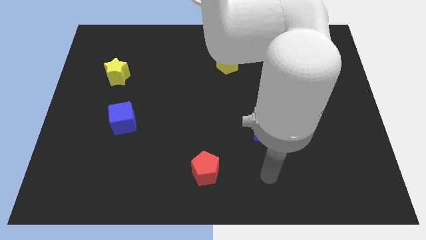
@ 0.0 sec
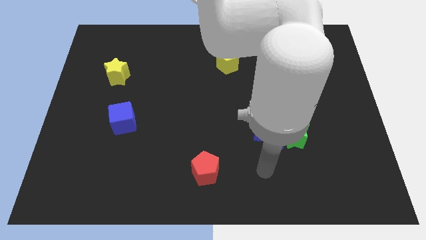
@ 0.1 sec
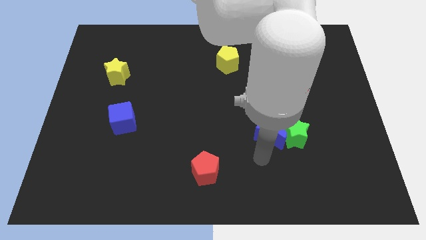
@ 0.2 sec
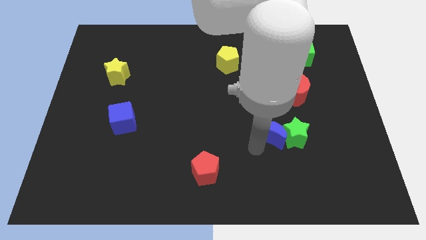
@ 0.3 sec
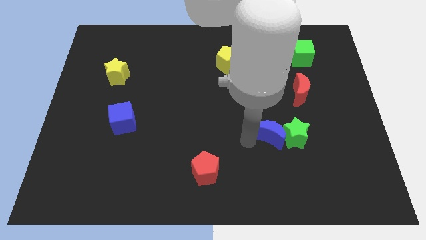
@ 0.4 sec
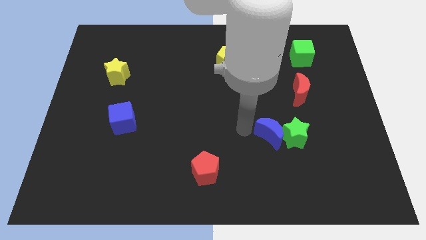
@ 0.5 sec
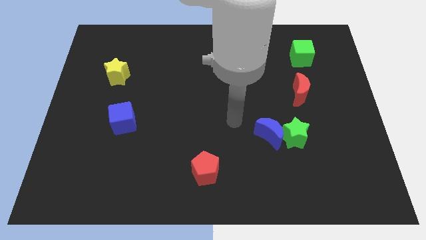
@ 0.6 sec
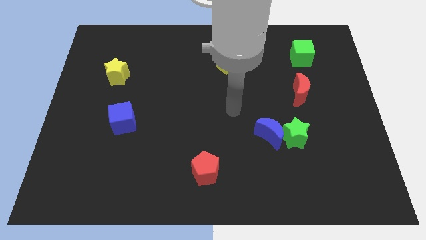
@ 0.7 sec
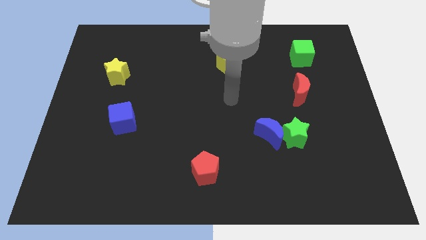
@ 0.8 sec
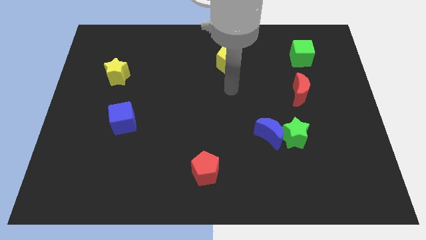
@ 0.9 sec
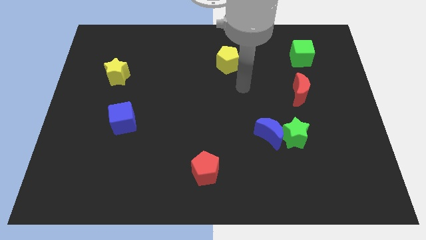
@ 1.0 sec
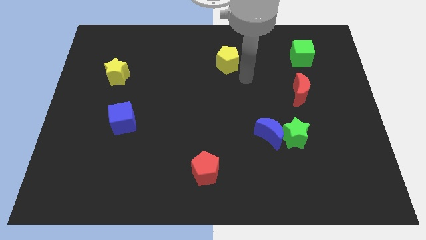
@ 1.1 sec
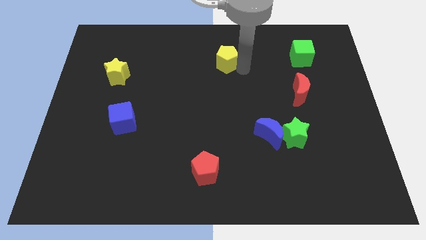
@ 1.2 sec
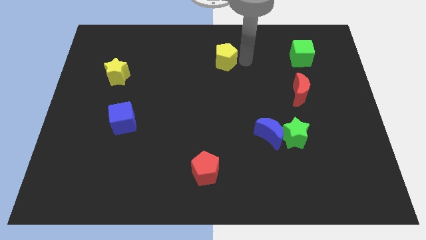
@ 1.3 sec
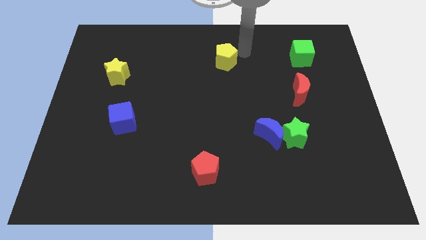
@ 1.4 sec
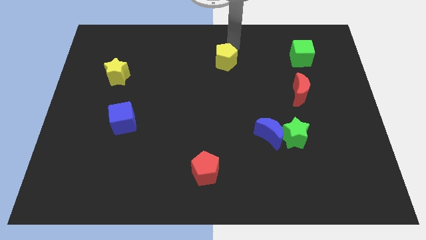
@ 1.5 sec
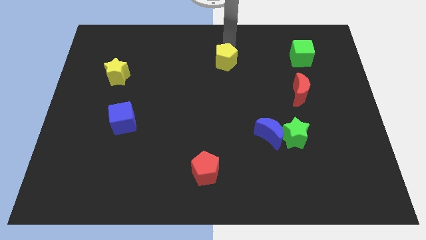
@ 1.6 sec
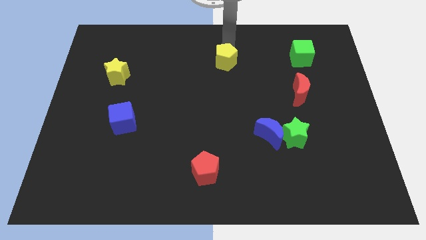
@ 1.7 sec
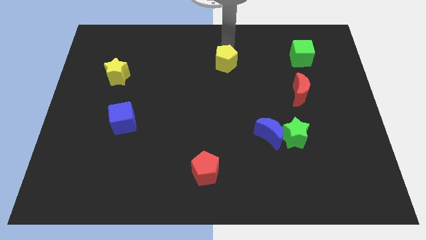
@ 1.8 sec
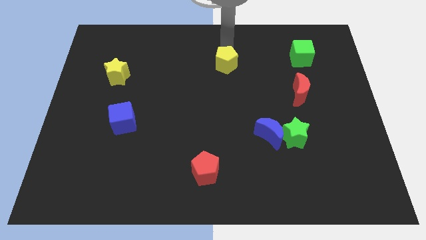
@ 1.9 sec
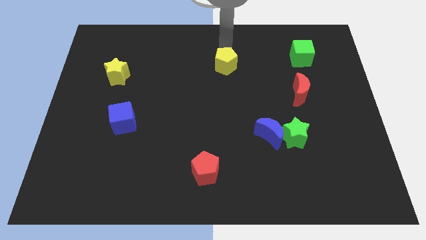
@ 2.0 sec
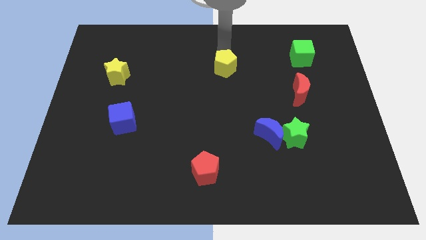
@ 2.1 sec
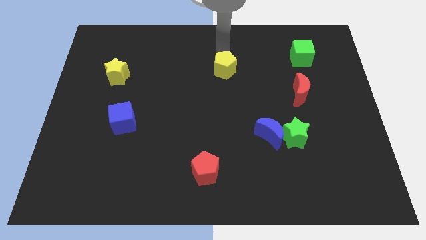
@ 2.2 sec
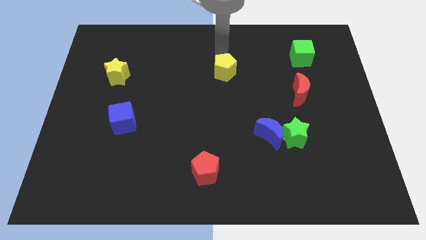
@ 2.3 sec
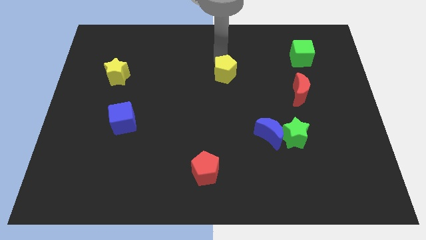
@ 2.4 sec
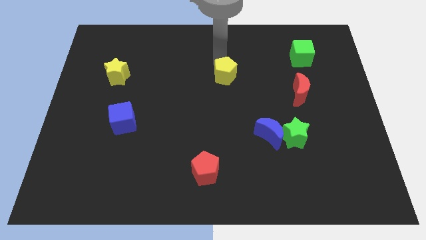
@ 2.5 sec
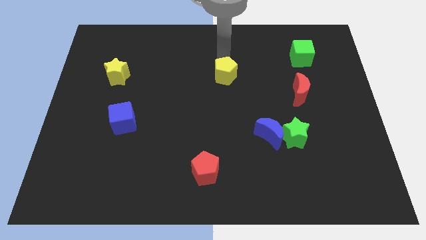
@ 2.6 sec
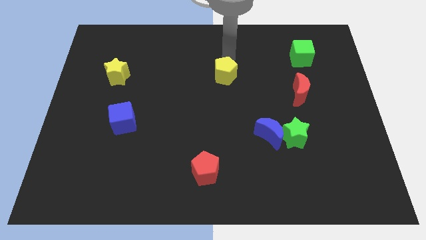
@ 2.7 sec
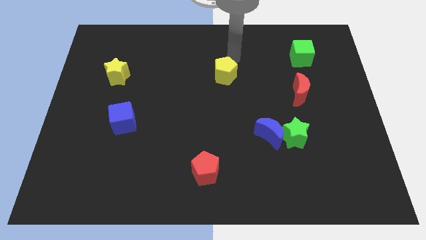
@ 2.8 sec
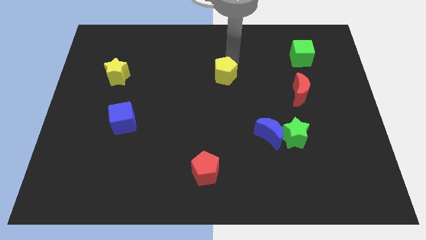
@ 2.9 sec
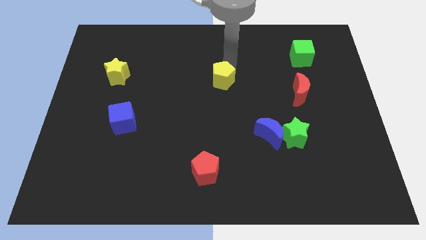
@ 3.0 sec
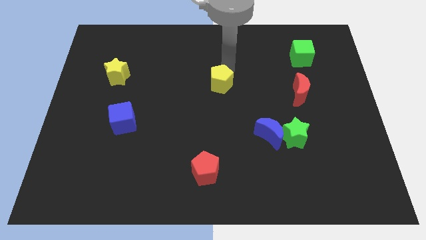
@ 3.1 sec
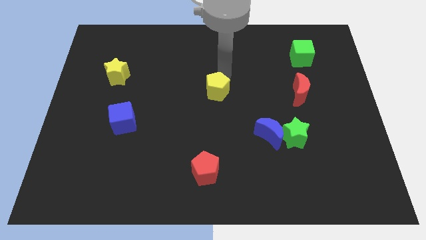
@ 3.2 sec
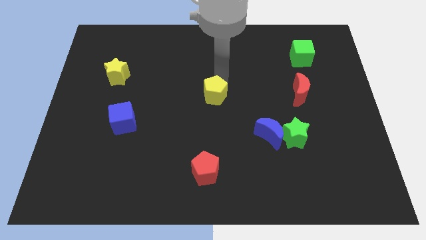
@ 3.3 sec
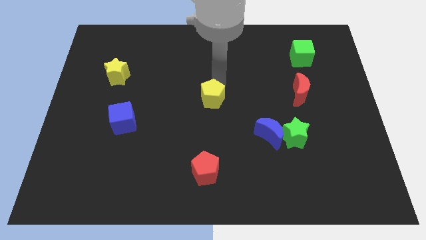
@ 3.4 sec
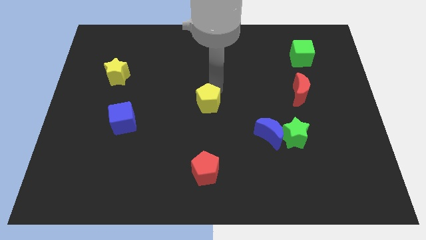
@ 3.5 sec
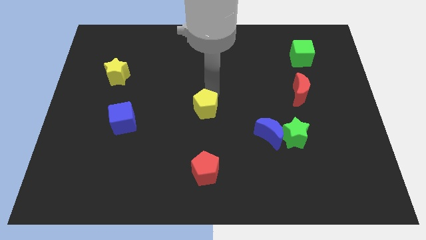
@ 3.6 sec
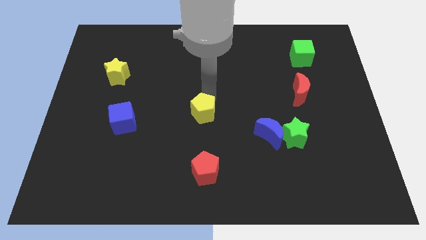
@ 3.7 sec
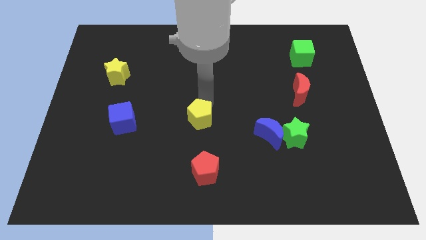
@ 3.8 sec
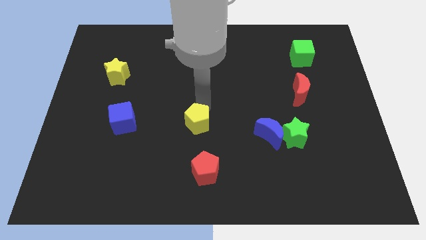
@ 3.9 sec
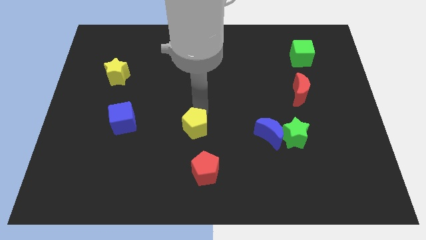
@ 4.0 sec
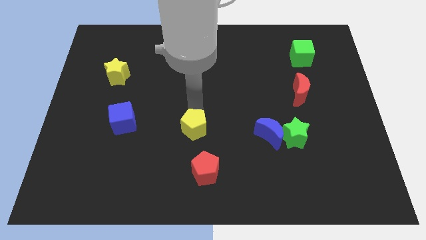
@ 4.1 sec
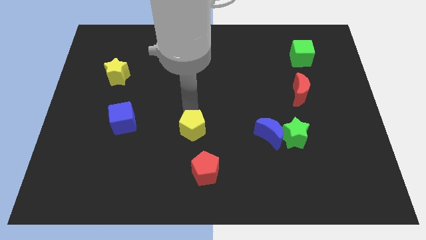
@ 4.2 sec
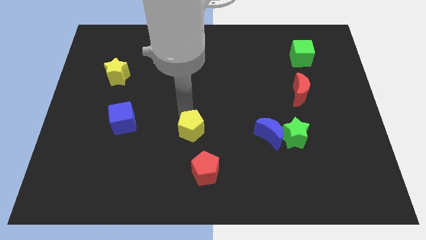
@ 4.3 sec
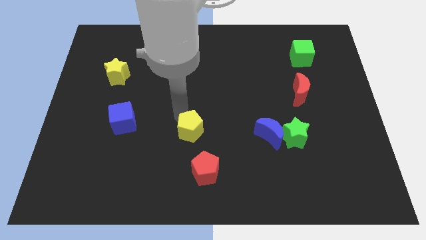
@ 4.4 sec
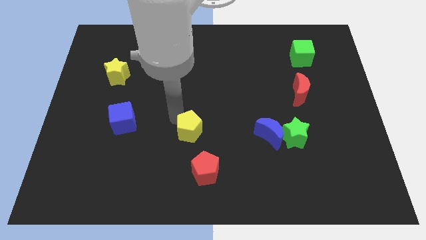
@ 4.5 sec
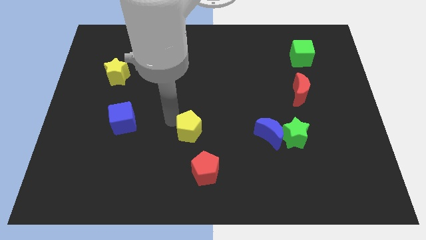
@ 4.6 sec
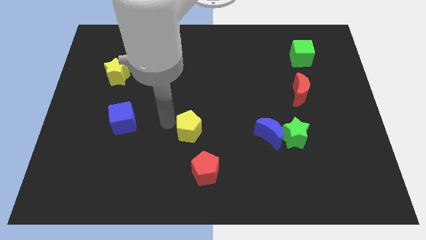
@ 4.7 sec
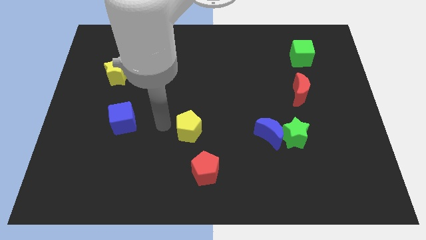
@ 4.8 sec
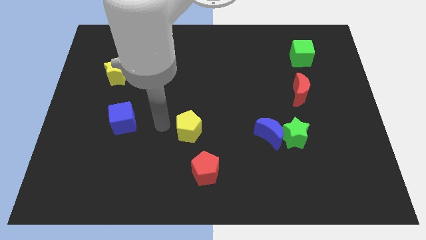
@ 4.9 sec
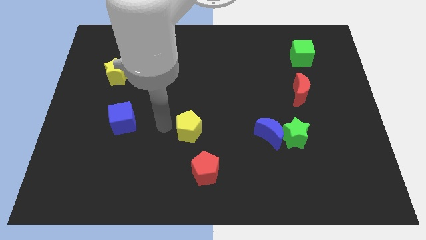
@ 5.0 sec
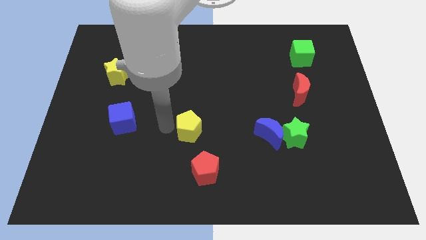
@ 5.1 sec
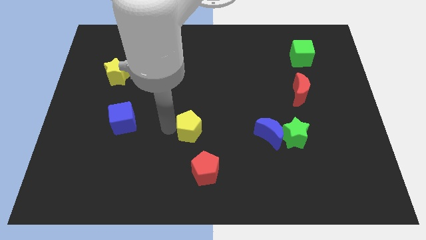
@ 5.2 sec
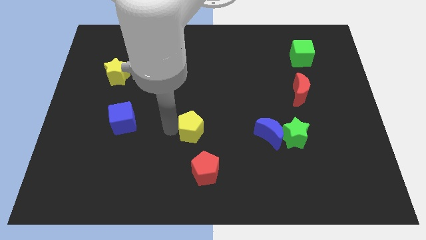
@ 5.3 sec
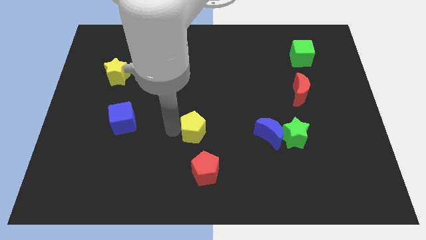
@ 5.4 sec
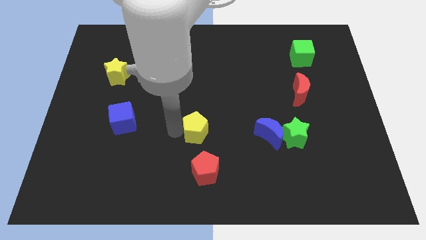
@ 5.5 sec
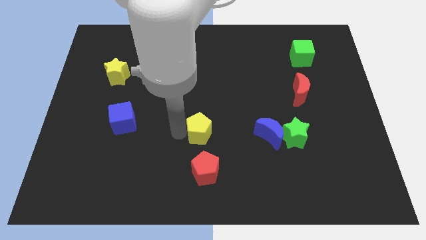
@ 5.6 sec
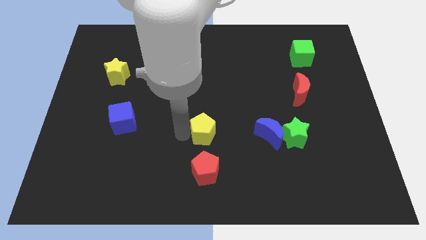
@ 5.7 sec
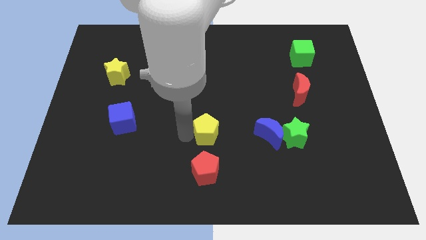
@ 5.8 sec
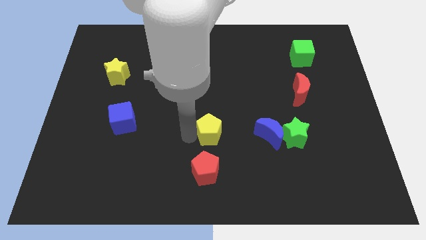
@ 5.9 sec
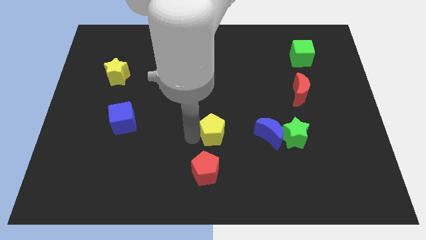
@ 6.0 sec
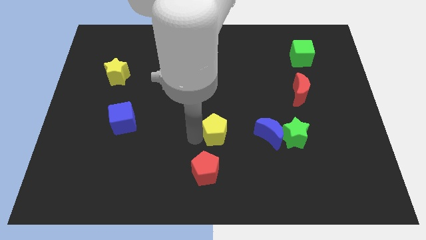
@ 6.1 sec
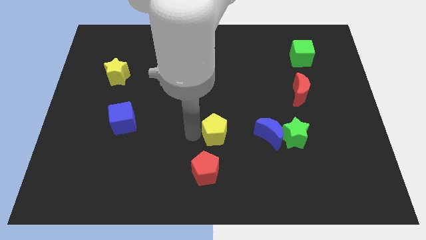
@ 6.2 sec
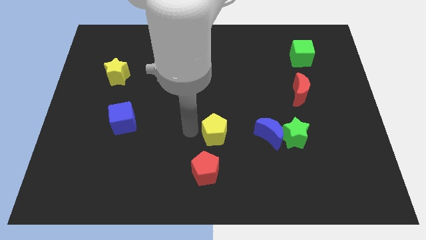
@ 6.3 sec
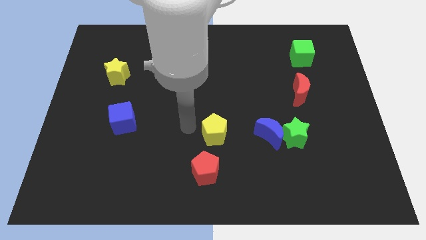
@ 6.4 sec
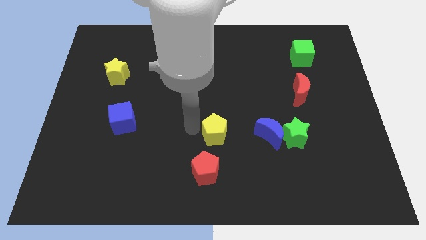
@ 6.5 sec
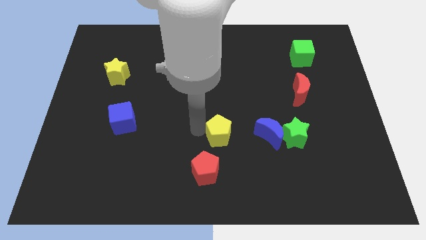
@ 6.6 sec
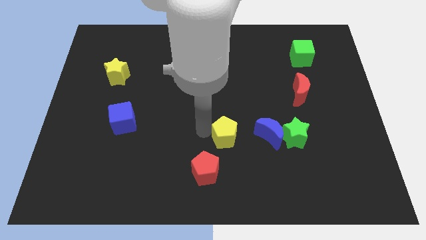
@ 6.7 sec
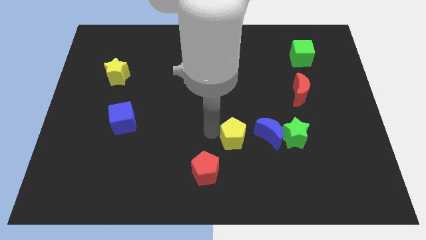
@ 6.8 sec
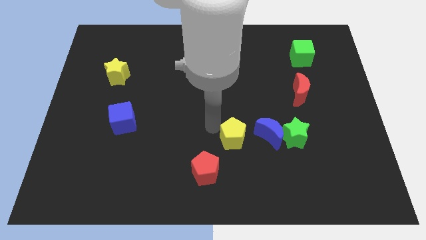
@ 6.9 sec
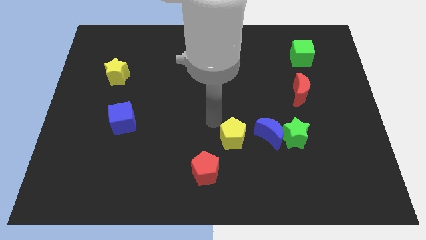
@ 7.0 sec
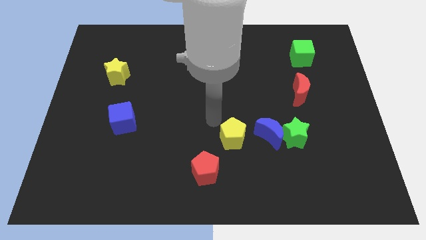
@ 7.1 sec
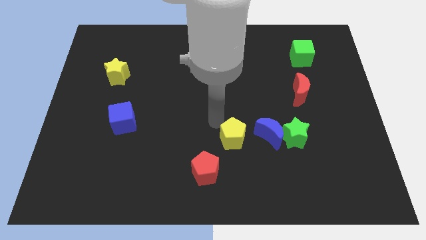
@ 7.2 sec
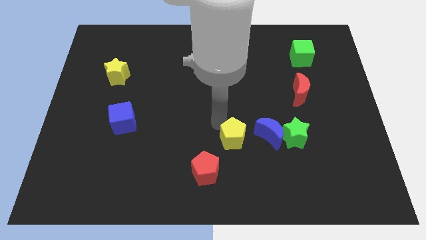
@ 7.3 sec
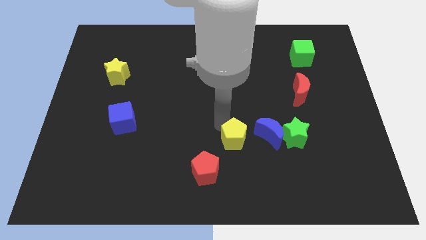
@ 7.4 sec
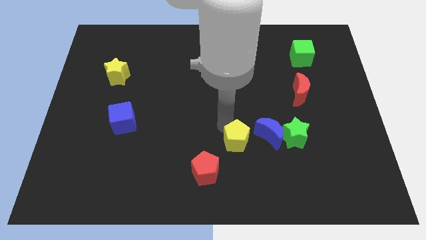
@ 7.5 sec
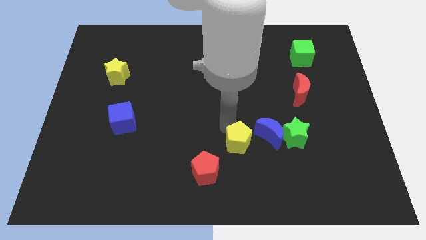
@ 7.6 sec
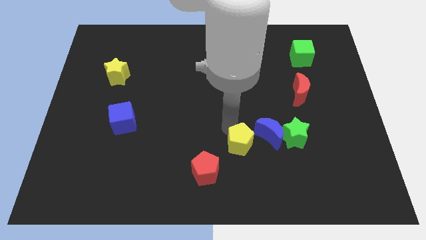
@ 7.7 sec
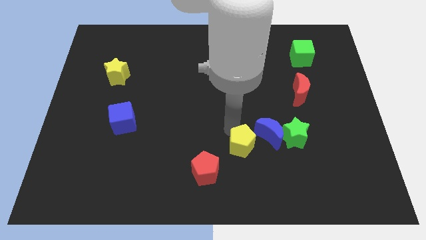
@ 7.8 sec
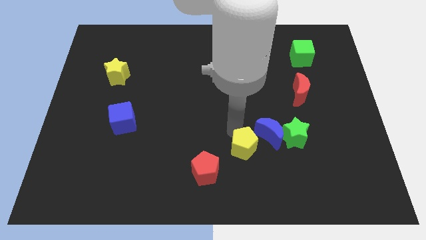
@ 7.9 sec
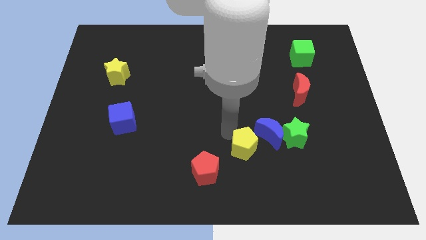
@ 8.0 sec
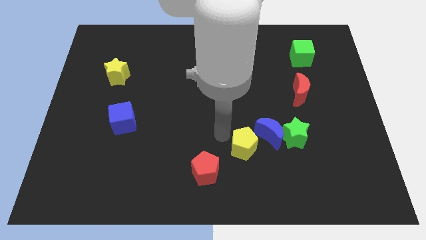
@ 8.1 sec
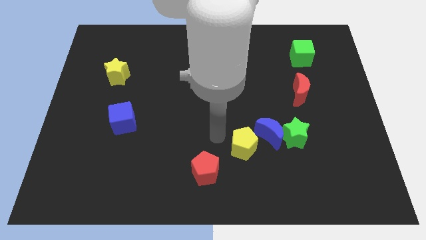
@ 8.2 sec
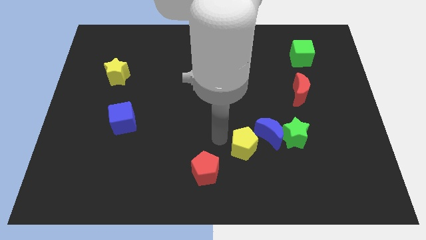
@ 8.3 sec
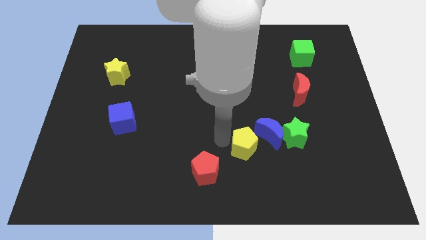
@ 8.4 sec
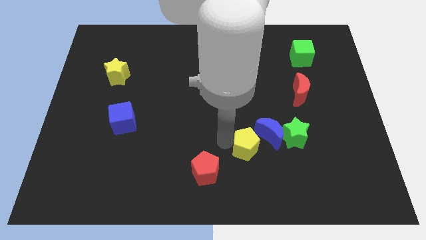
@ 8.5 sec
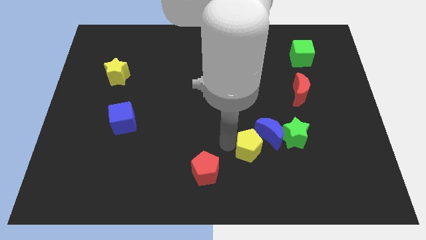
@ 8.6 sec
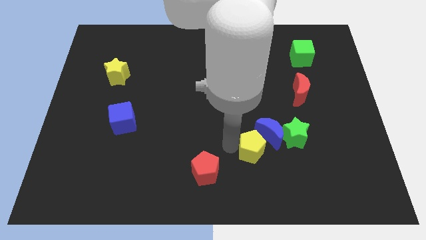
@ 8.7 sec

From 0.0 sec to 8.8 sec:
slide the yellow pentagon to the bottom left of the green star
